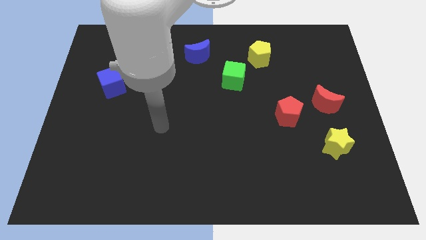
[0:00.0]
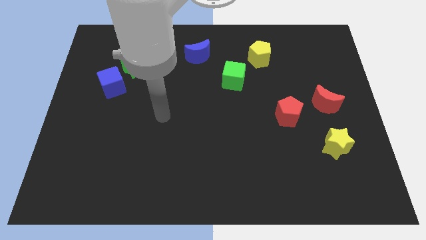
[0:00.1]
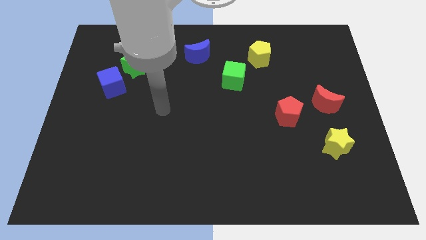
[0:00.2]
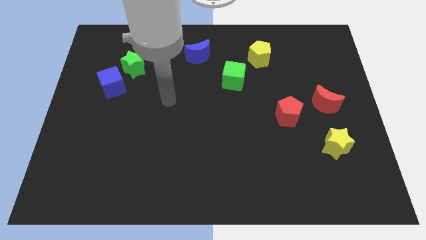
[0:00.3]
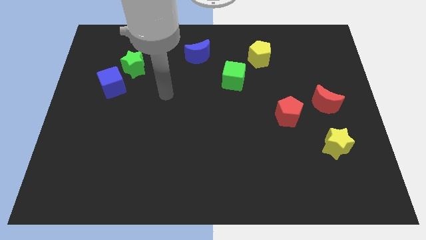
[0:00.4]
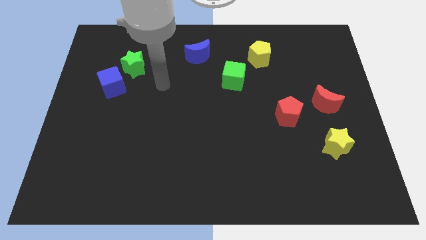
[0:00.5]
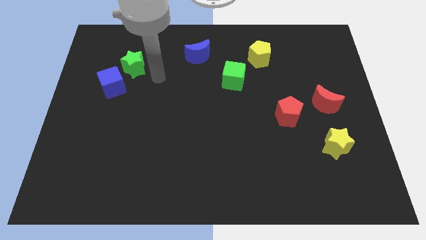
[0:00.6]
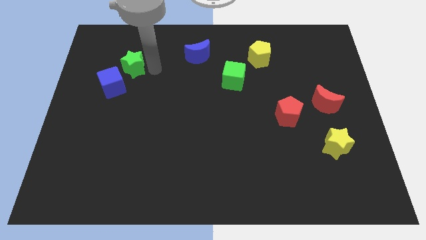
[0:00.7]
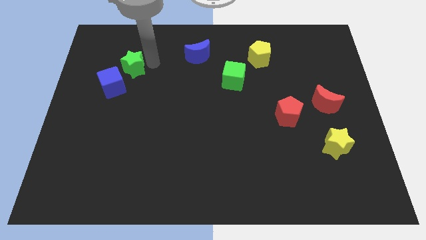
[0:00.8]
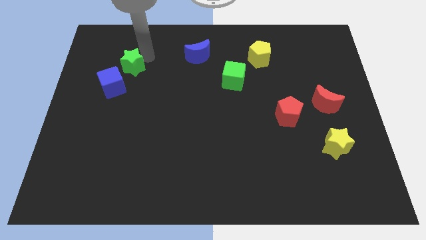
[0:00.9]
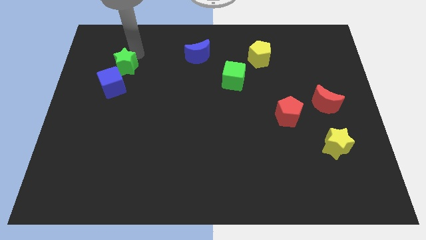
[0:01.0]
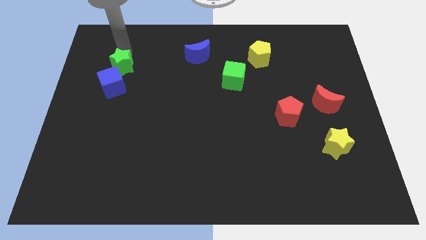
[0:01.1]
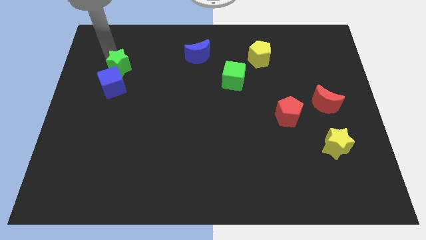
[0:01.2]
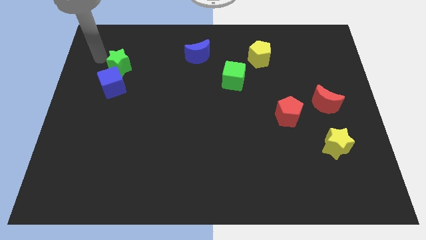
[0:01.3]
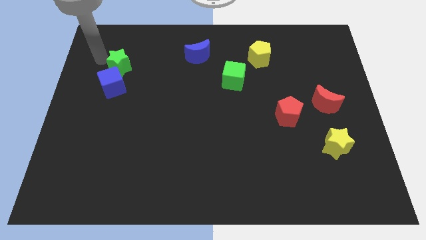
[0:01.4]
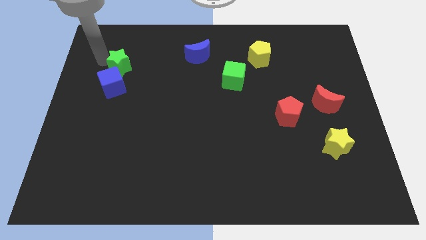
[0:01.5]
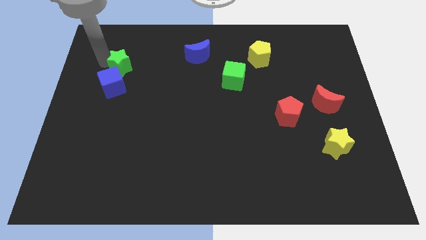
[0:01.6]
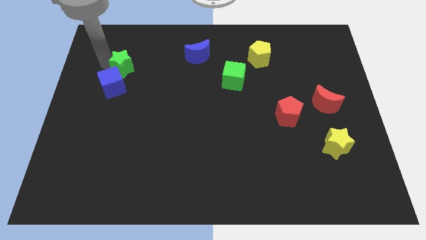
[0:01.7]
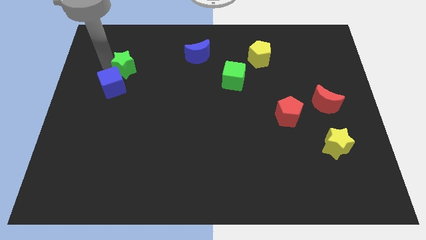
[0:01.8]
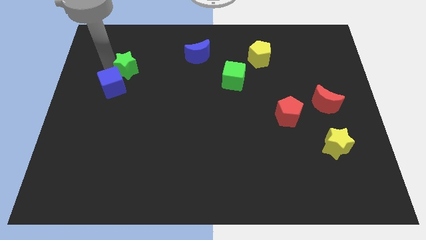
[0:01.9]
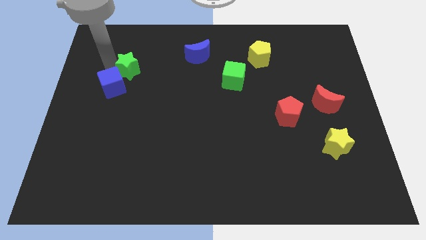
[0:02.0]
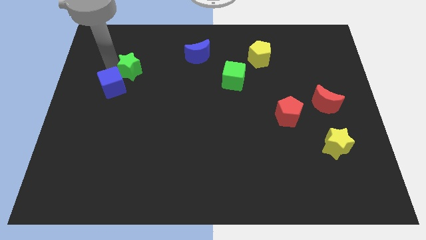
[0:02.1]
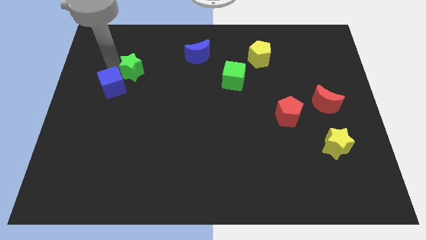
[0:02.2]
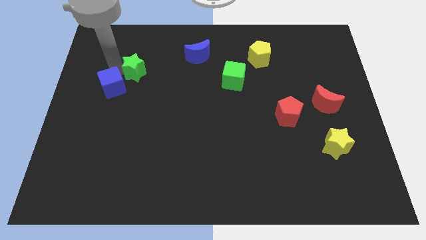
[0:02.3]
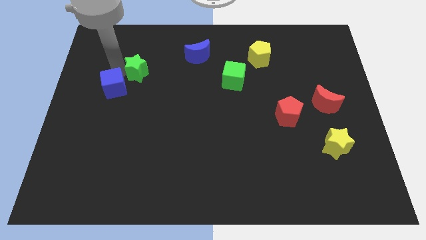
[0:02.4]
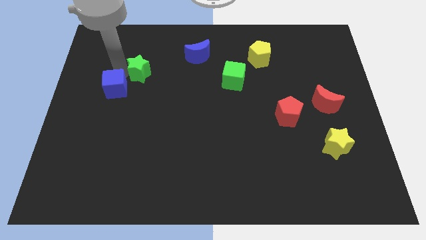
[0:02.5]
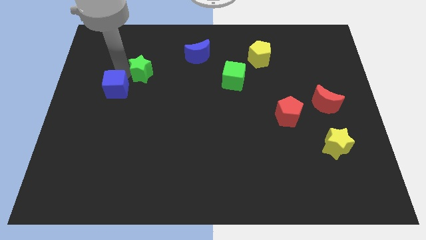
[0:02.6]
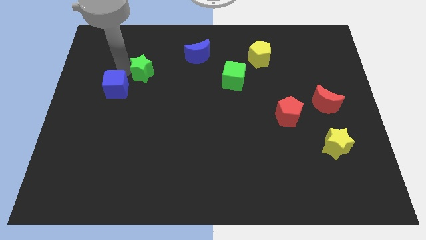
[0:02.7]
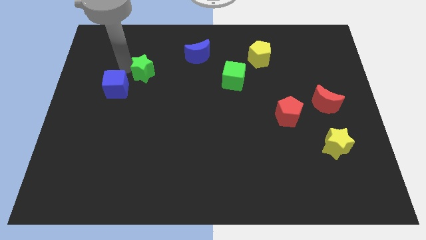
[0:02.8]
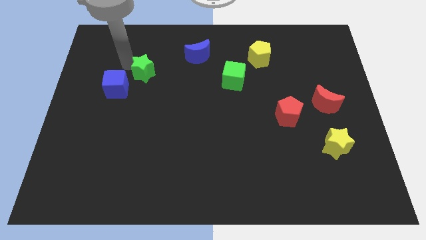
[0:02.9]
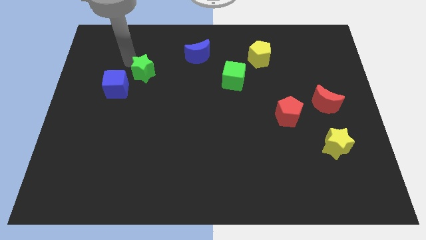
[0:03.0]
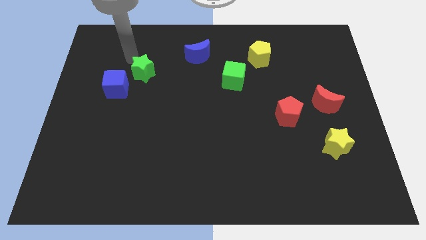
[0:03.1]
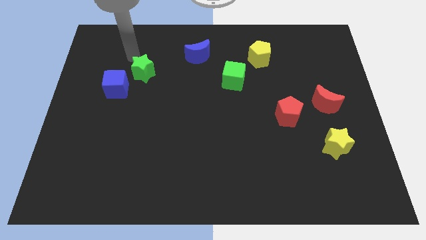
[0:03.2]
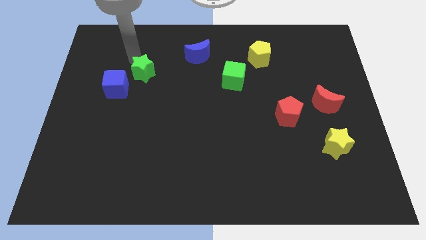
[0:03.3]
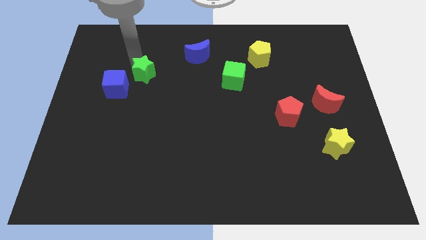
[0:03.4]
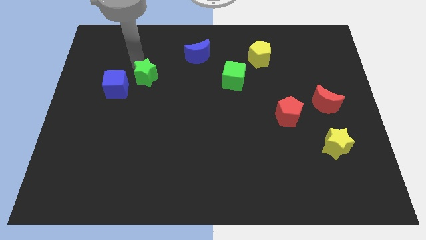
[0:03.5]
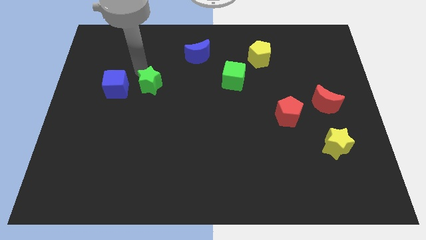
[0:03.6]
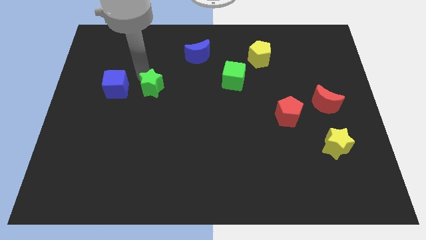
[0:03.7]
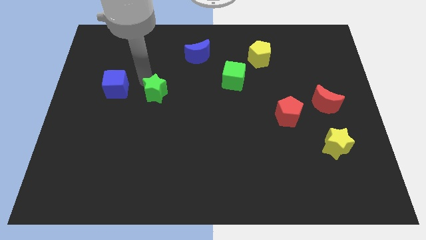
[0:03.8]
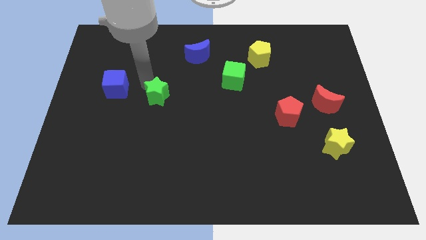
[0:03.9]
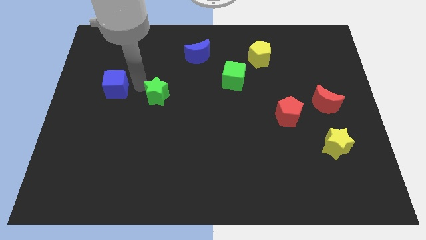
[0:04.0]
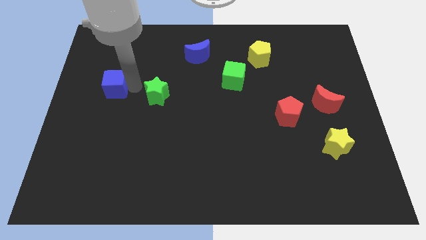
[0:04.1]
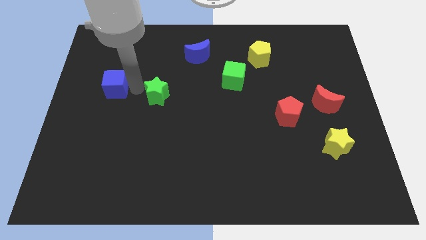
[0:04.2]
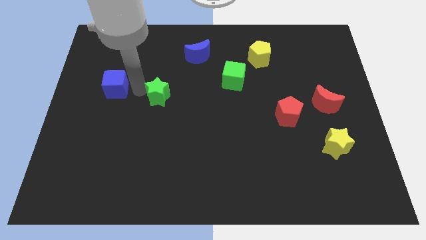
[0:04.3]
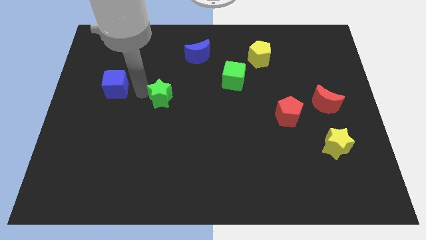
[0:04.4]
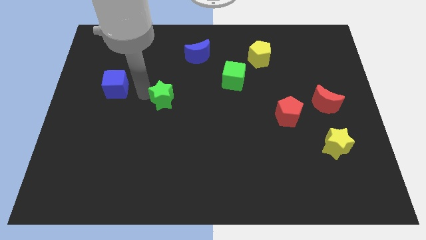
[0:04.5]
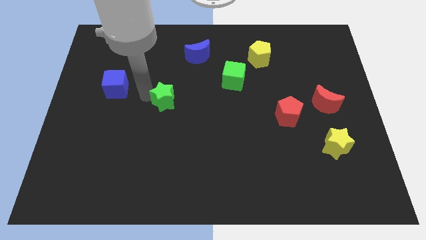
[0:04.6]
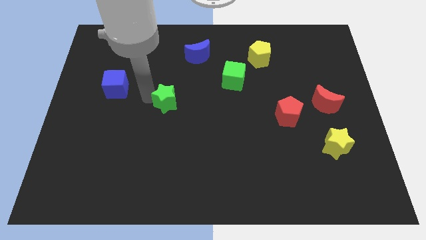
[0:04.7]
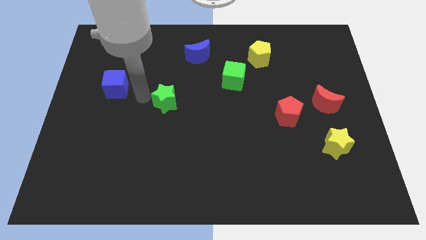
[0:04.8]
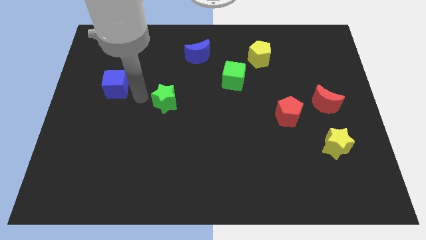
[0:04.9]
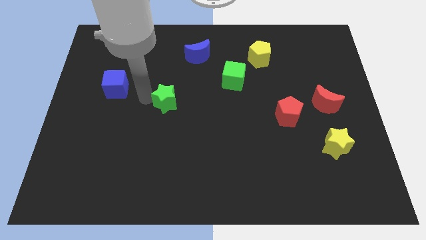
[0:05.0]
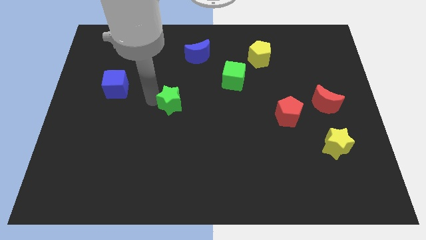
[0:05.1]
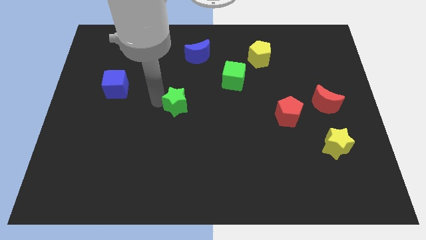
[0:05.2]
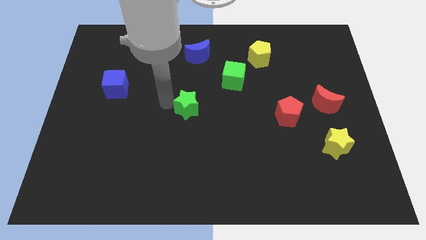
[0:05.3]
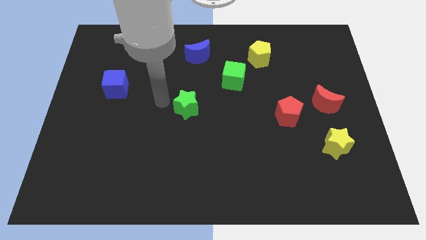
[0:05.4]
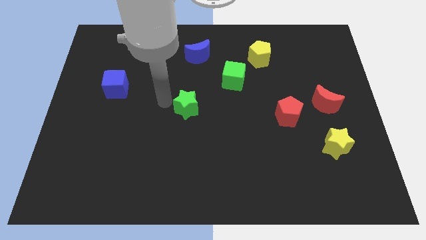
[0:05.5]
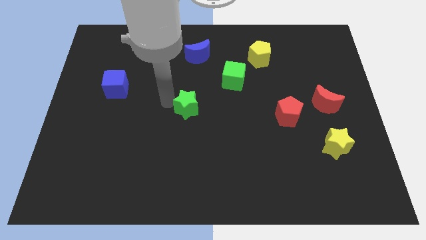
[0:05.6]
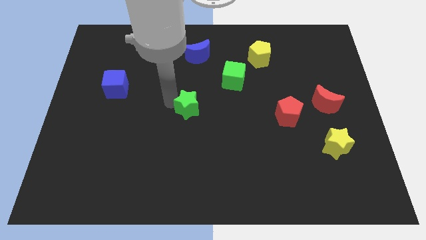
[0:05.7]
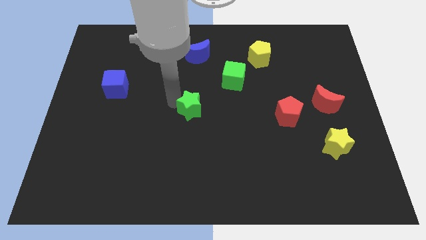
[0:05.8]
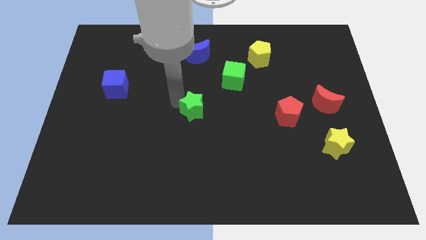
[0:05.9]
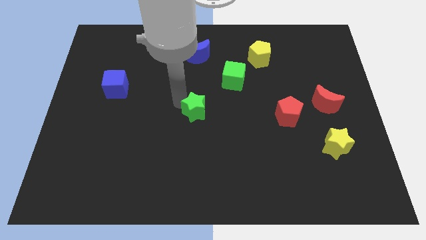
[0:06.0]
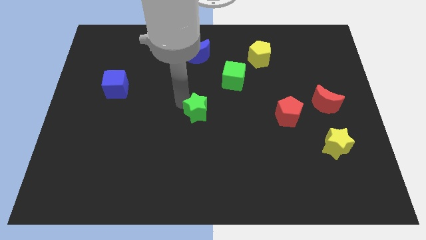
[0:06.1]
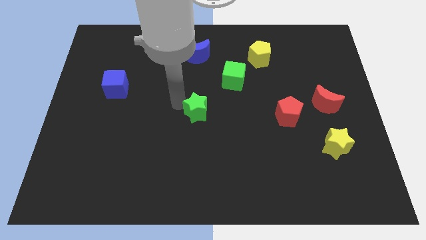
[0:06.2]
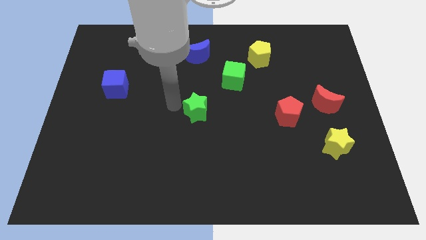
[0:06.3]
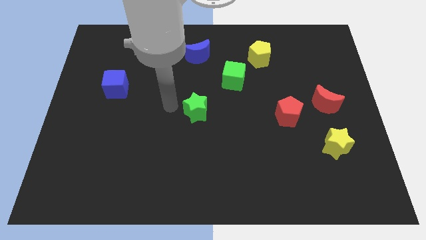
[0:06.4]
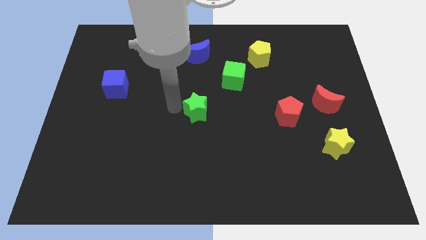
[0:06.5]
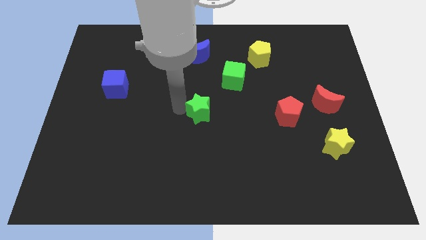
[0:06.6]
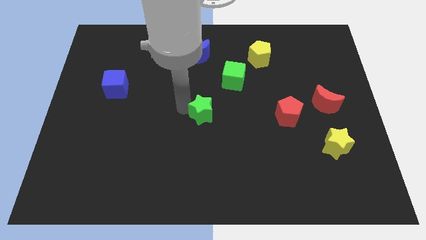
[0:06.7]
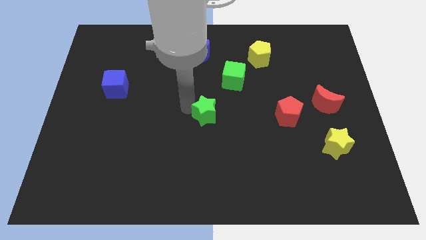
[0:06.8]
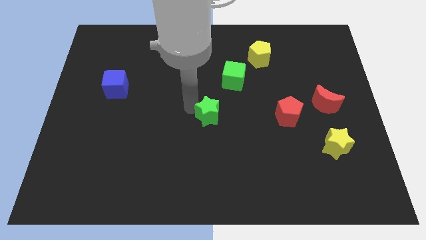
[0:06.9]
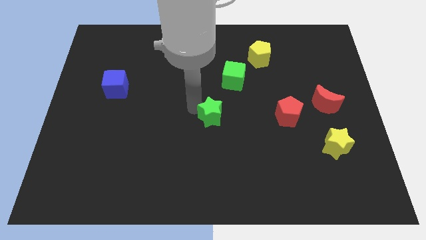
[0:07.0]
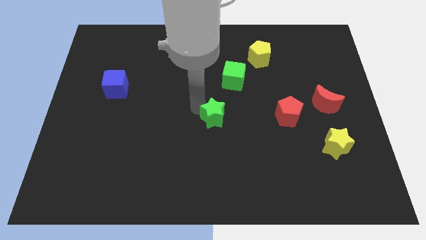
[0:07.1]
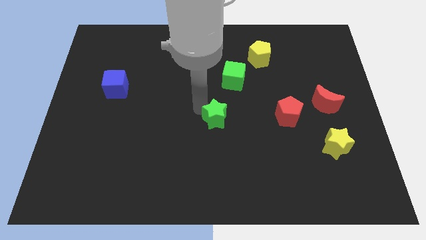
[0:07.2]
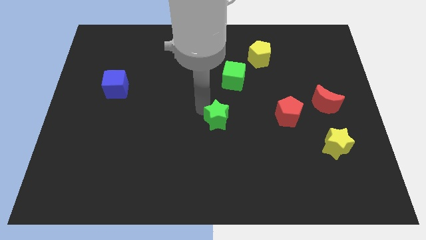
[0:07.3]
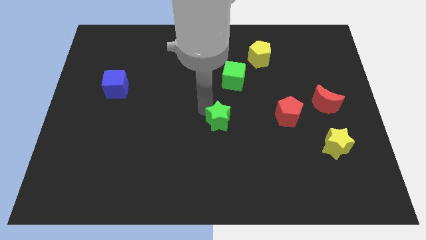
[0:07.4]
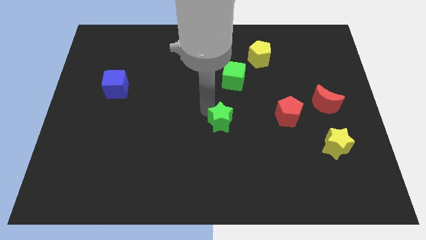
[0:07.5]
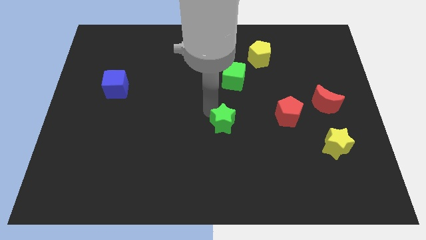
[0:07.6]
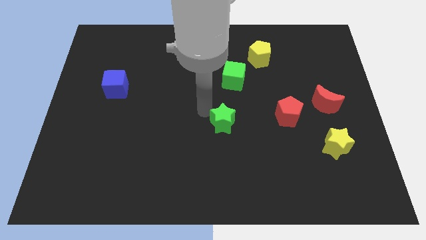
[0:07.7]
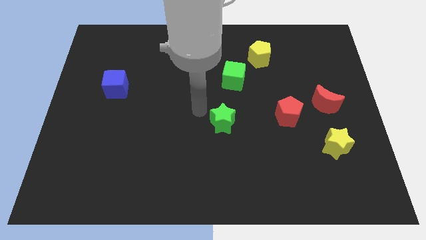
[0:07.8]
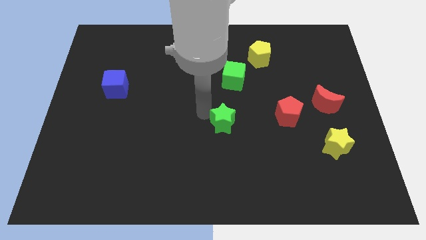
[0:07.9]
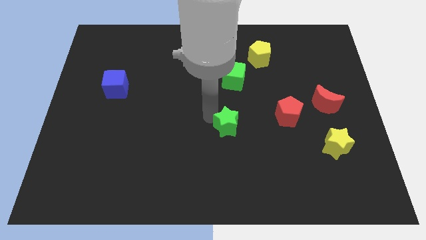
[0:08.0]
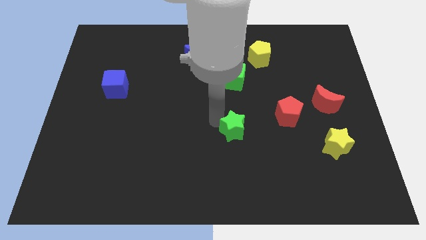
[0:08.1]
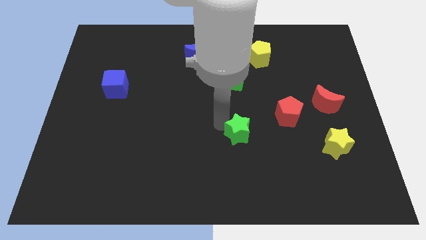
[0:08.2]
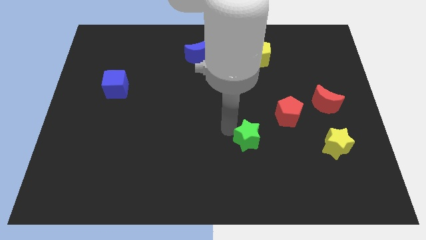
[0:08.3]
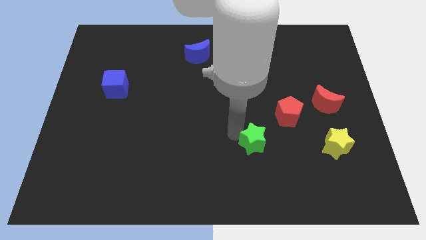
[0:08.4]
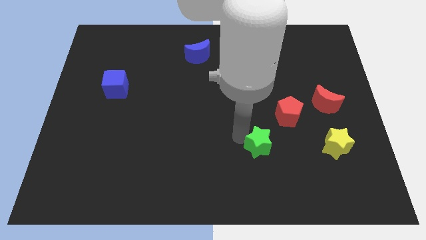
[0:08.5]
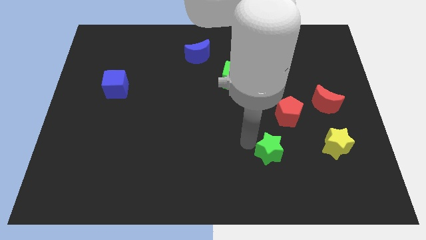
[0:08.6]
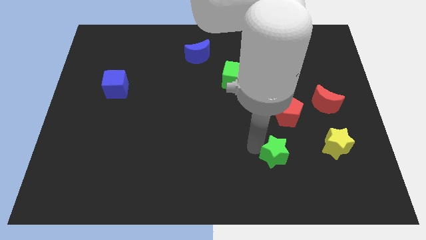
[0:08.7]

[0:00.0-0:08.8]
slide the green star below the red pentagon
